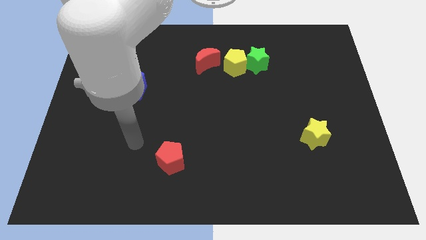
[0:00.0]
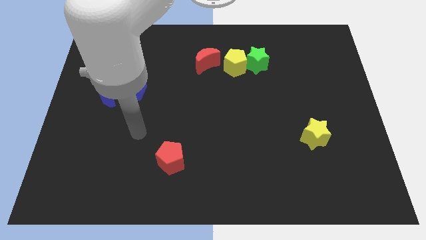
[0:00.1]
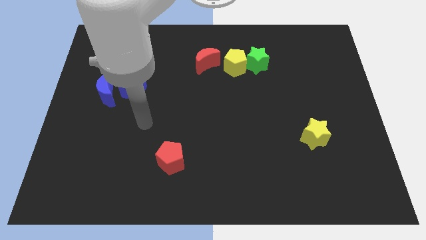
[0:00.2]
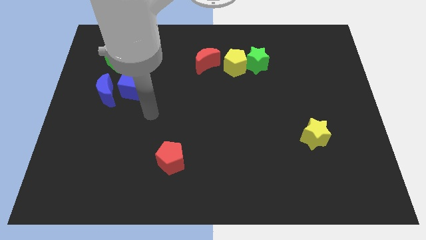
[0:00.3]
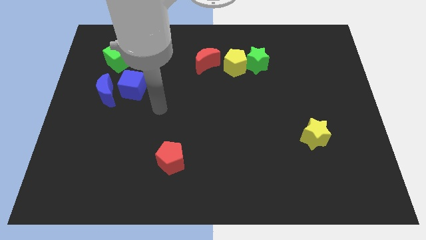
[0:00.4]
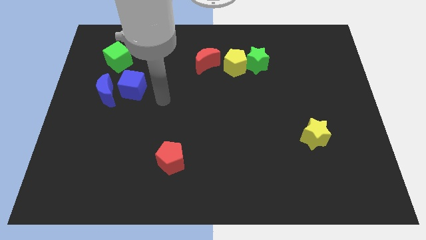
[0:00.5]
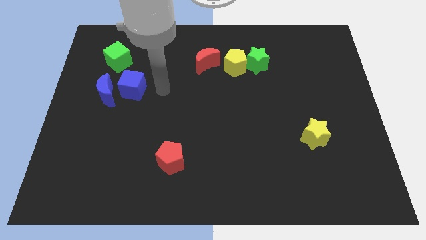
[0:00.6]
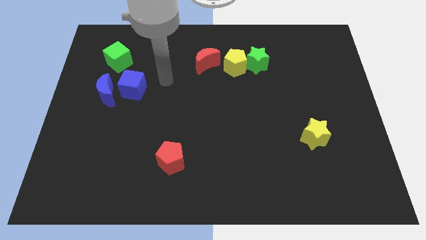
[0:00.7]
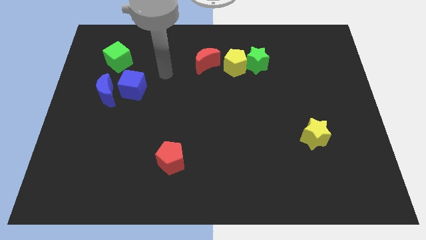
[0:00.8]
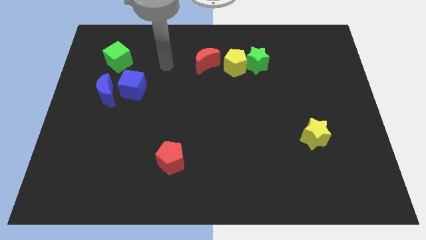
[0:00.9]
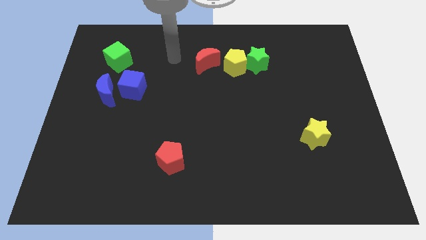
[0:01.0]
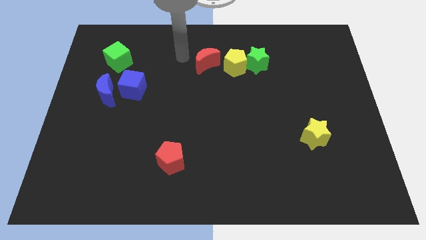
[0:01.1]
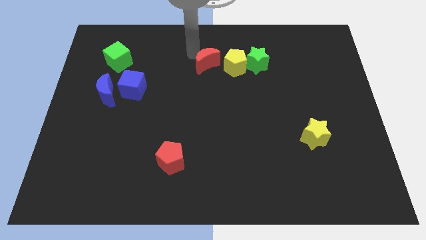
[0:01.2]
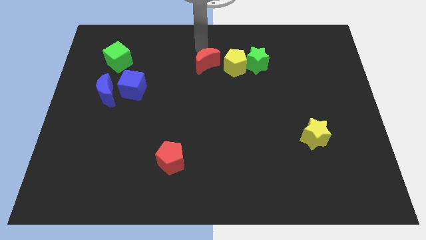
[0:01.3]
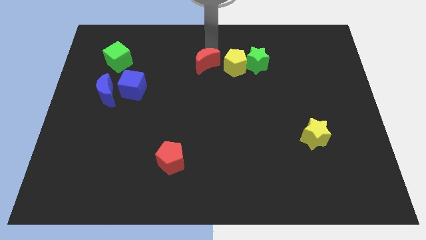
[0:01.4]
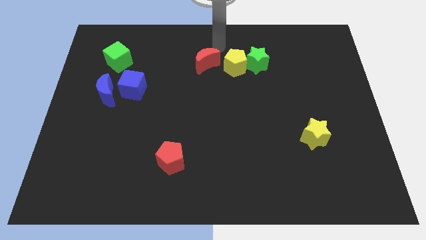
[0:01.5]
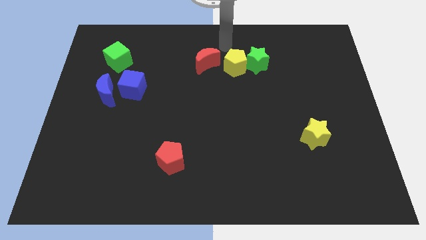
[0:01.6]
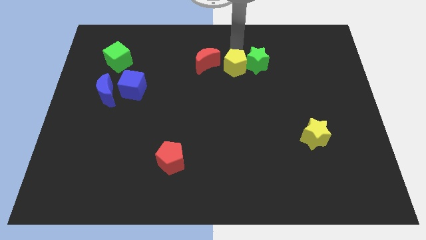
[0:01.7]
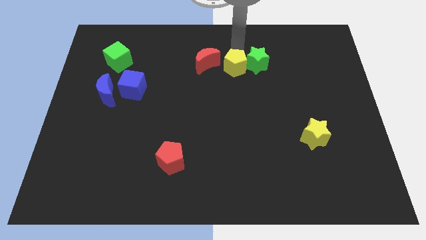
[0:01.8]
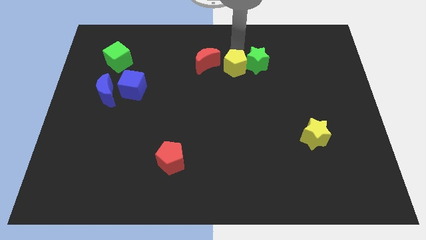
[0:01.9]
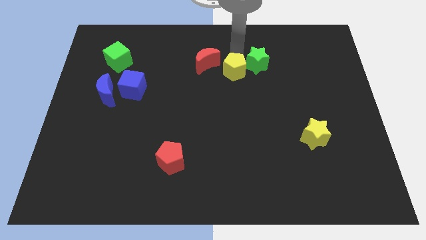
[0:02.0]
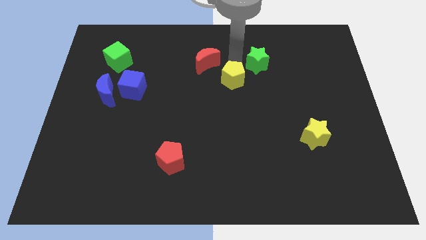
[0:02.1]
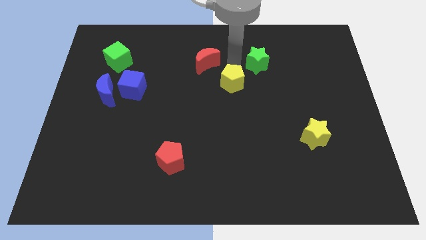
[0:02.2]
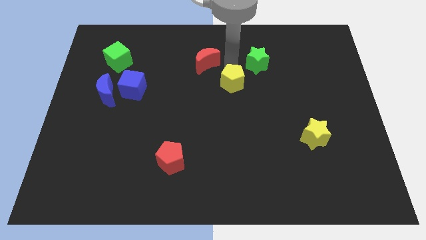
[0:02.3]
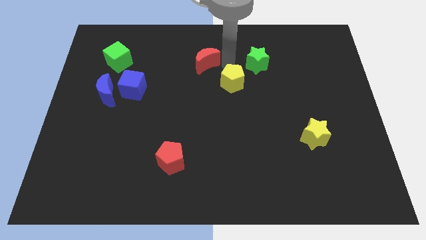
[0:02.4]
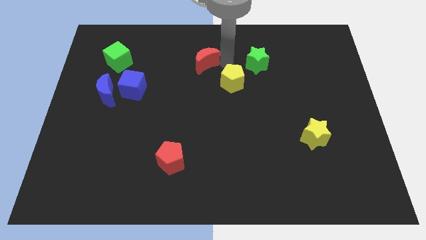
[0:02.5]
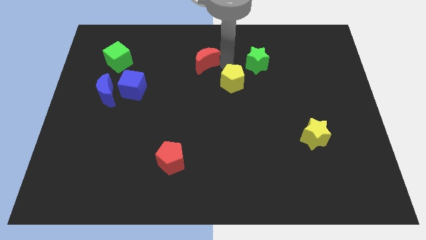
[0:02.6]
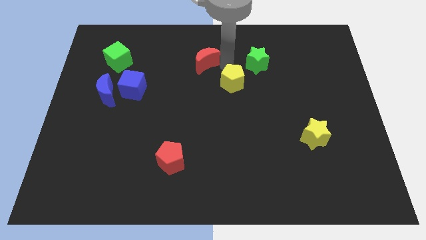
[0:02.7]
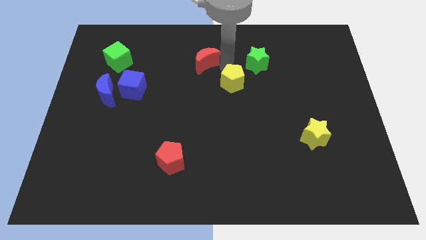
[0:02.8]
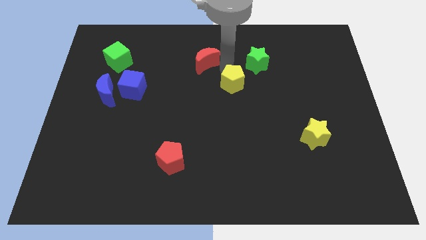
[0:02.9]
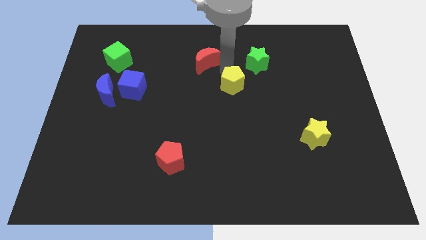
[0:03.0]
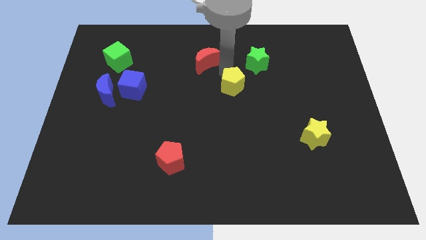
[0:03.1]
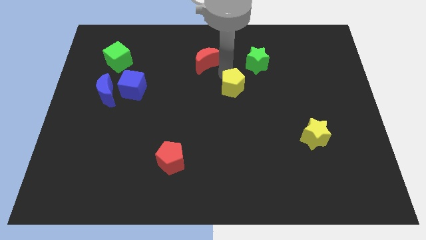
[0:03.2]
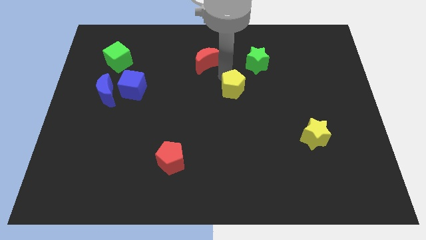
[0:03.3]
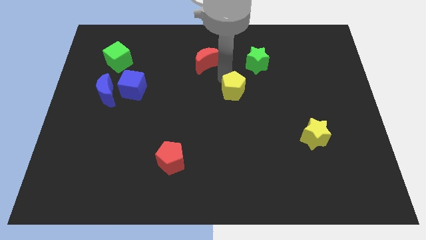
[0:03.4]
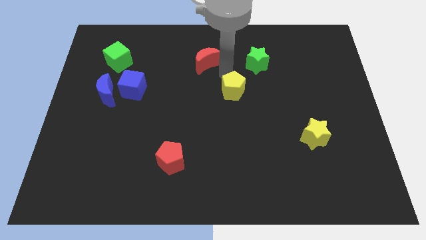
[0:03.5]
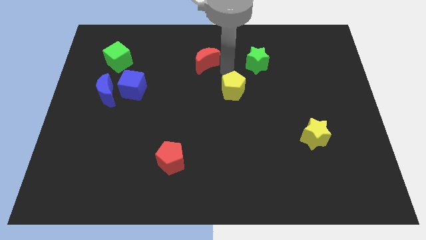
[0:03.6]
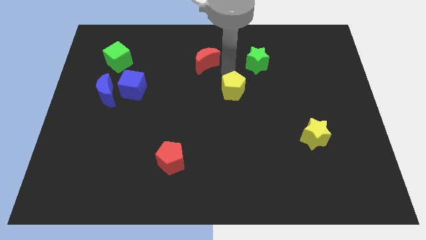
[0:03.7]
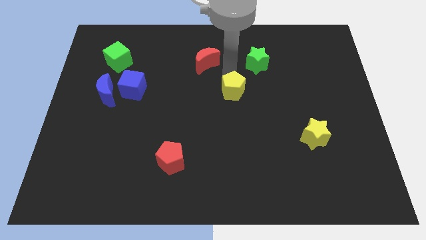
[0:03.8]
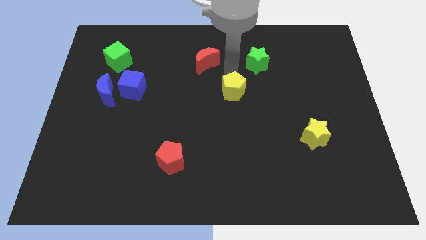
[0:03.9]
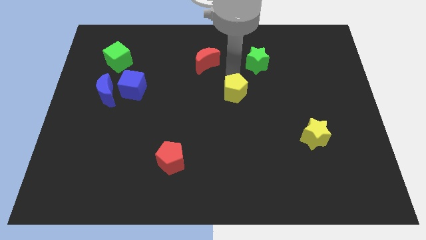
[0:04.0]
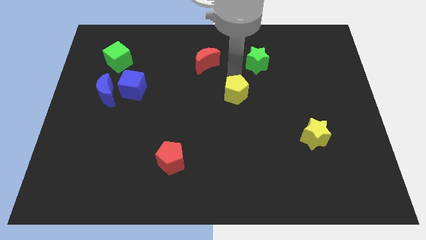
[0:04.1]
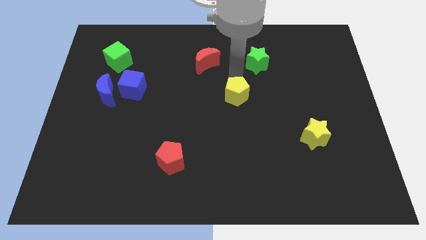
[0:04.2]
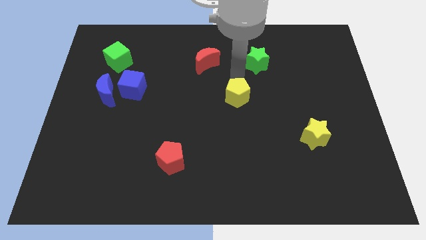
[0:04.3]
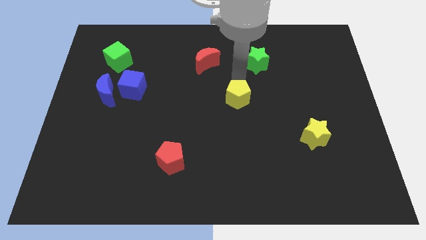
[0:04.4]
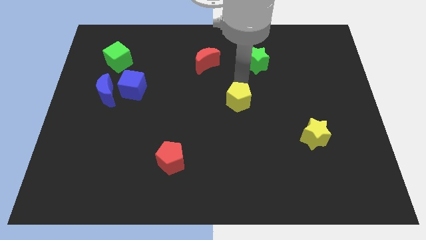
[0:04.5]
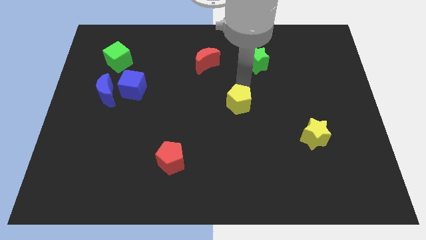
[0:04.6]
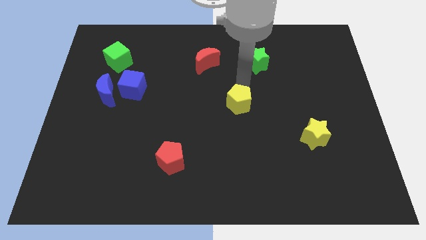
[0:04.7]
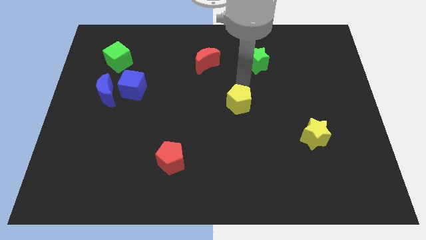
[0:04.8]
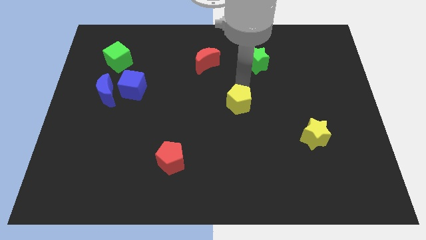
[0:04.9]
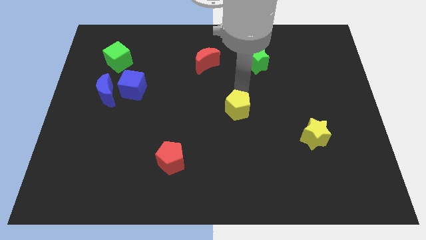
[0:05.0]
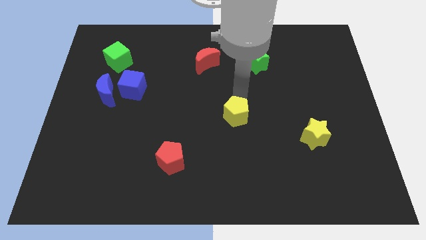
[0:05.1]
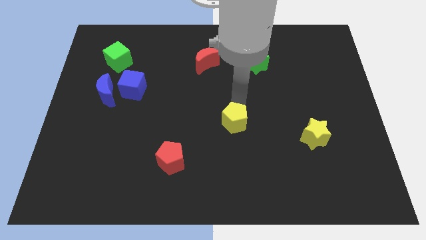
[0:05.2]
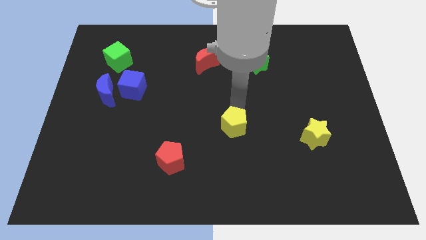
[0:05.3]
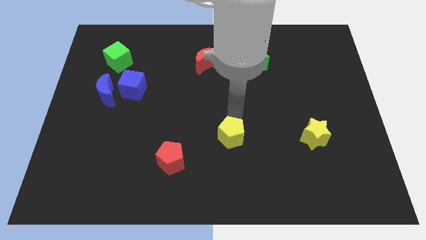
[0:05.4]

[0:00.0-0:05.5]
move the yellow pentagon downwards

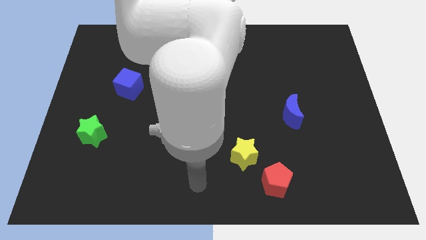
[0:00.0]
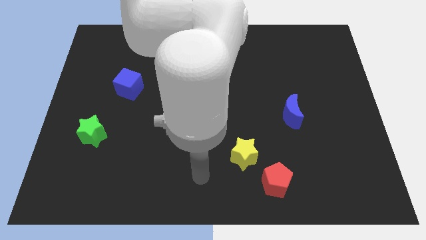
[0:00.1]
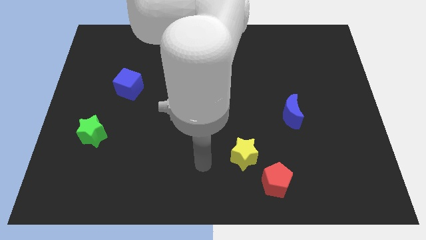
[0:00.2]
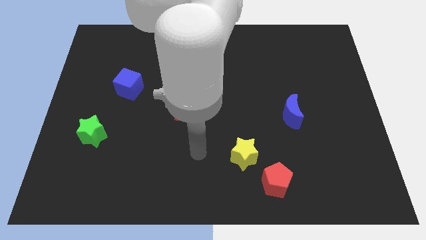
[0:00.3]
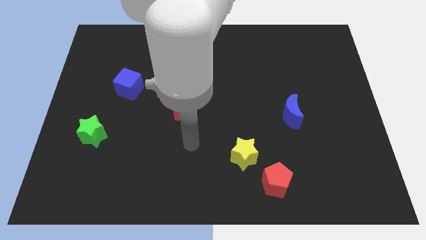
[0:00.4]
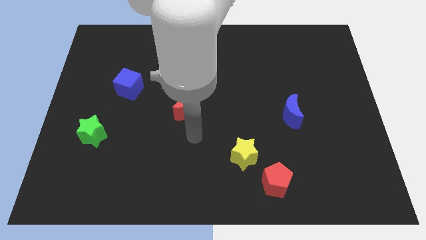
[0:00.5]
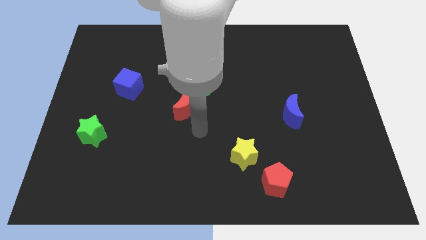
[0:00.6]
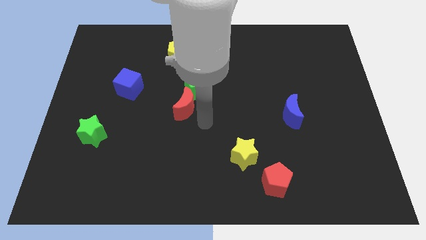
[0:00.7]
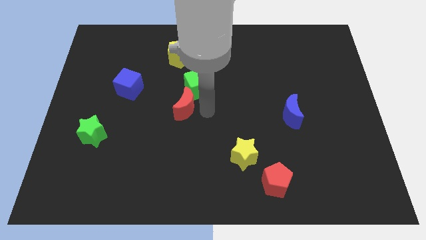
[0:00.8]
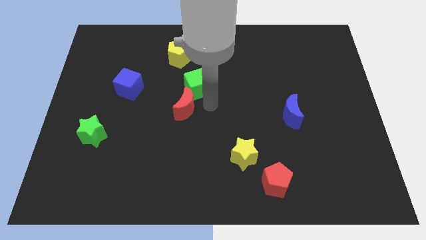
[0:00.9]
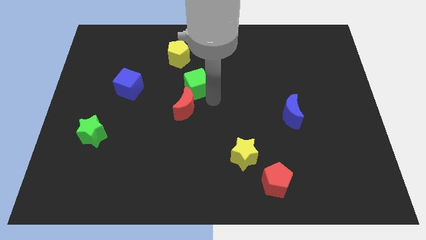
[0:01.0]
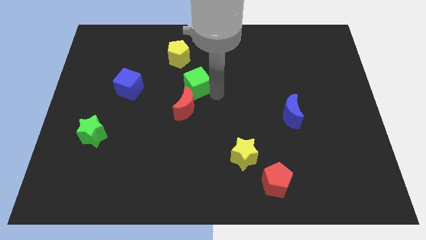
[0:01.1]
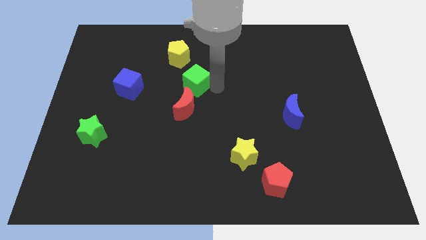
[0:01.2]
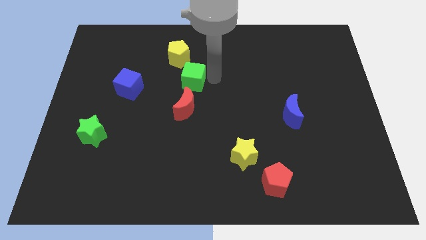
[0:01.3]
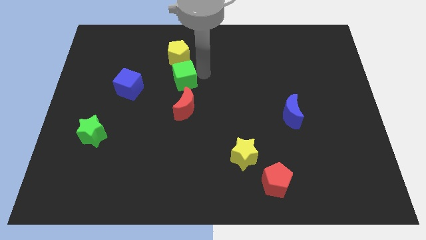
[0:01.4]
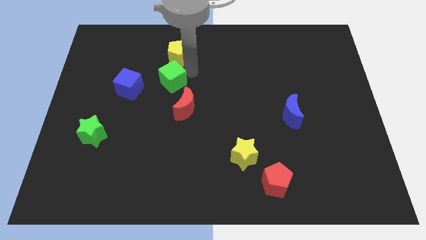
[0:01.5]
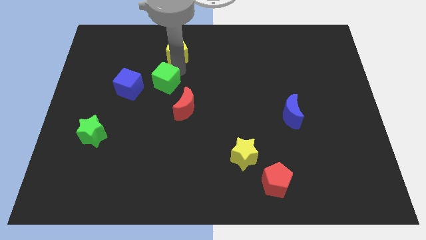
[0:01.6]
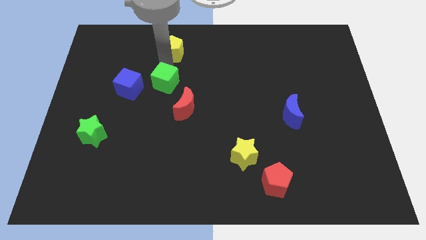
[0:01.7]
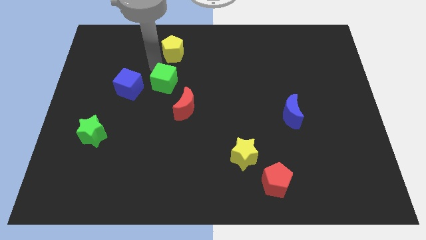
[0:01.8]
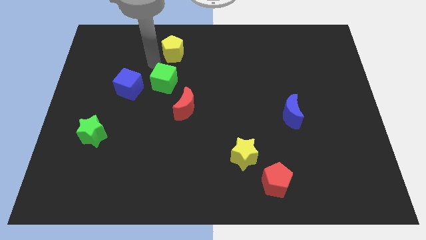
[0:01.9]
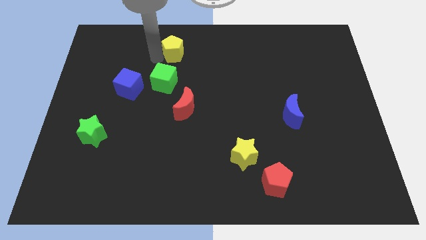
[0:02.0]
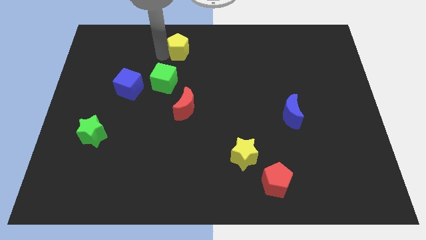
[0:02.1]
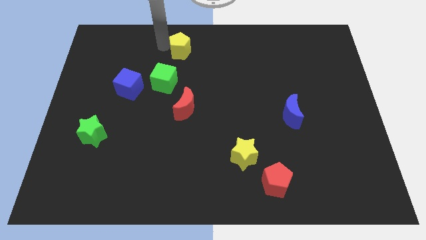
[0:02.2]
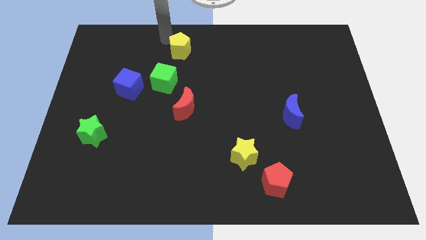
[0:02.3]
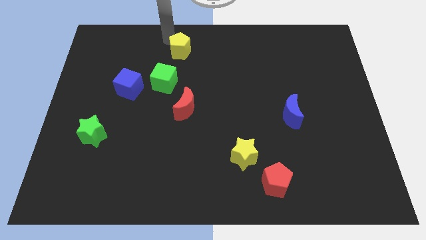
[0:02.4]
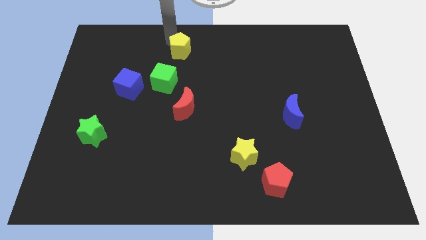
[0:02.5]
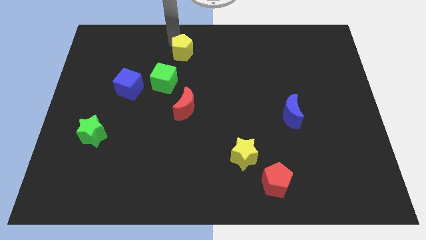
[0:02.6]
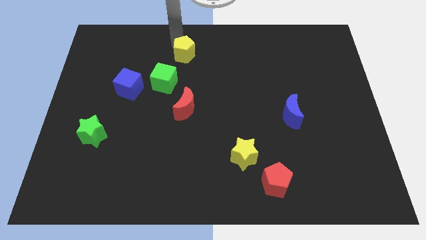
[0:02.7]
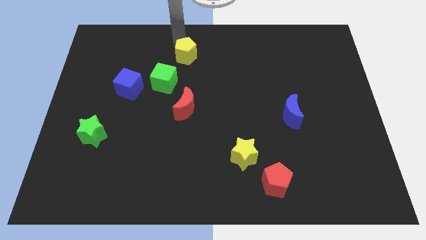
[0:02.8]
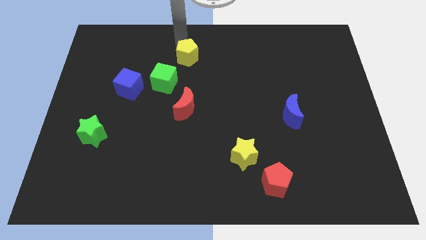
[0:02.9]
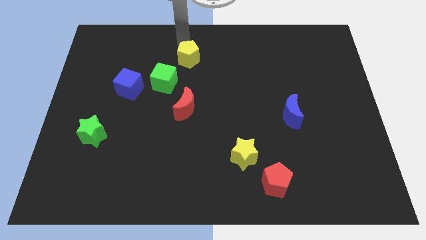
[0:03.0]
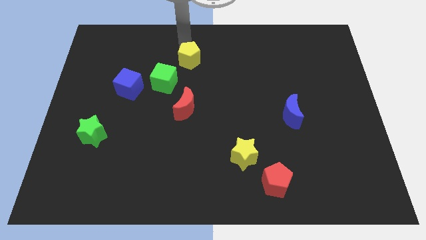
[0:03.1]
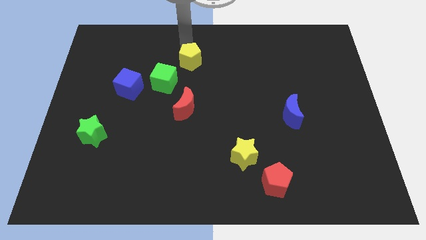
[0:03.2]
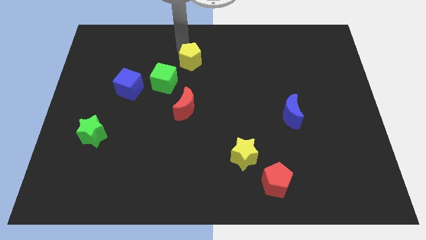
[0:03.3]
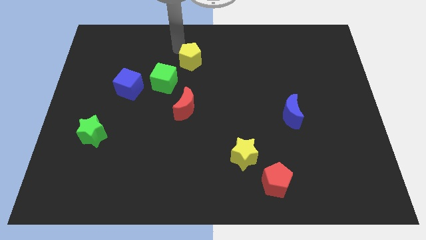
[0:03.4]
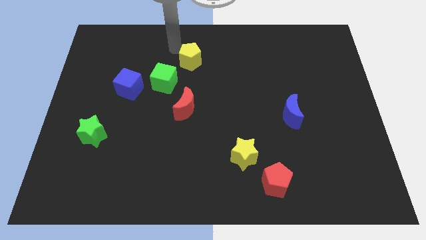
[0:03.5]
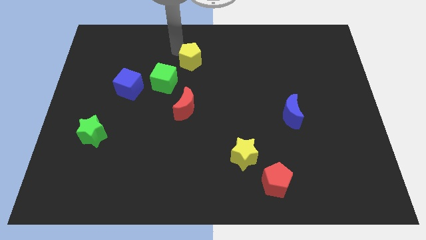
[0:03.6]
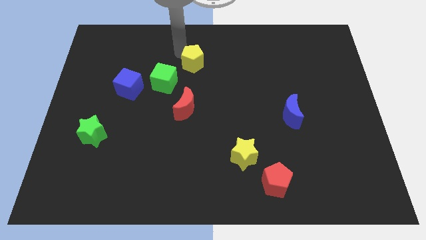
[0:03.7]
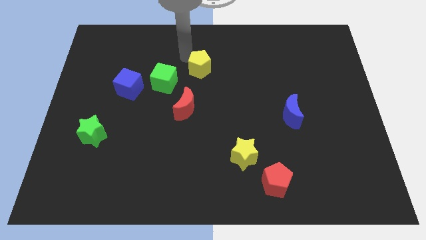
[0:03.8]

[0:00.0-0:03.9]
move the yellow pentagon diagonally down and right slightly
